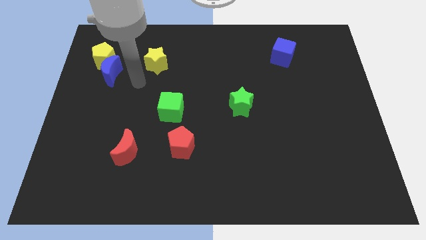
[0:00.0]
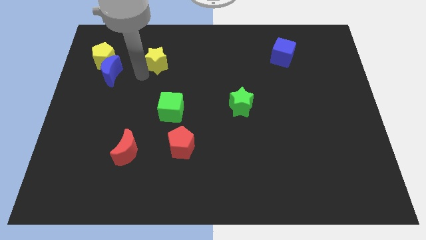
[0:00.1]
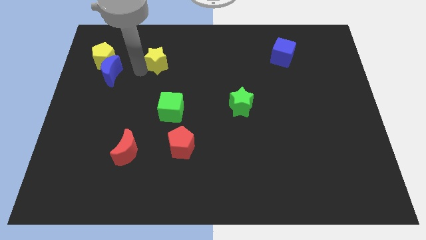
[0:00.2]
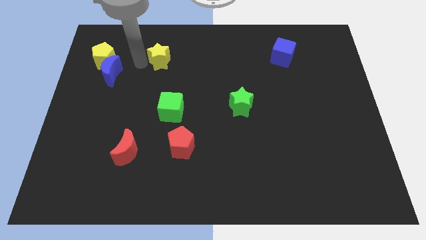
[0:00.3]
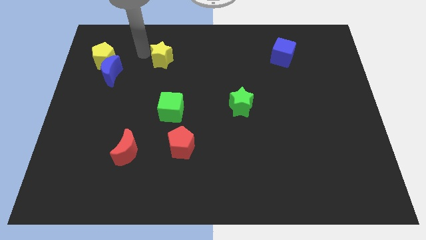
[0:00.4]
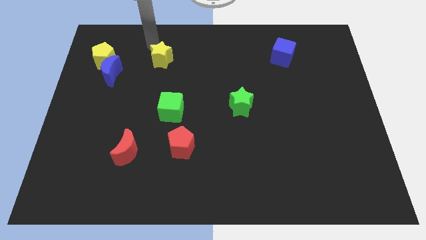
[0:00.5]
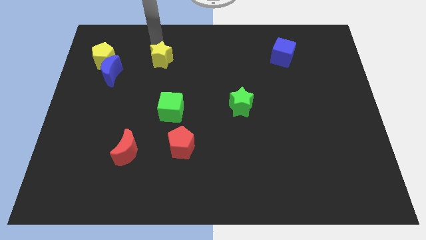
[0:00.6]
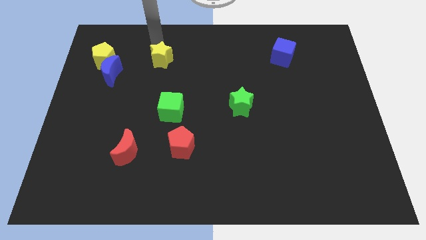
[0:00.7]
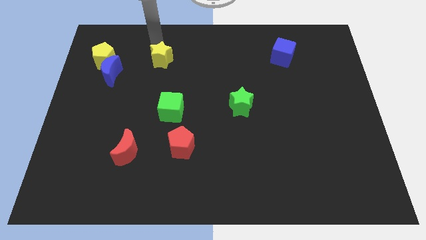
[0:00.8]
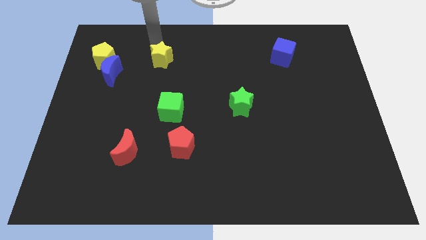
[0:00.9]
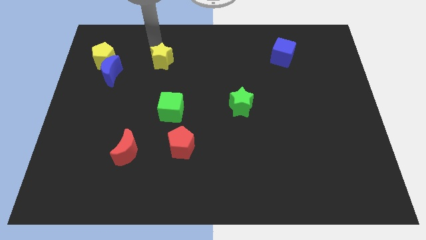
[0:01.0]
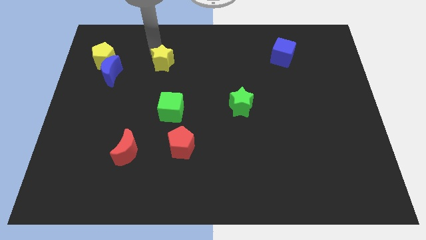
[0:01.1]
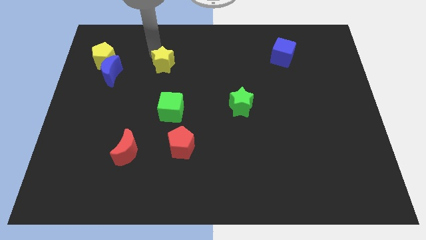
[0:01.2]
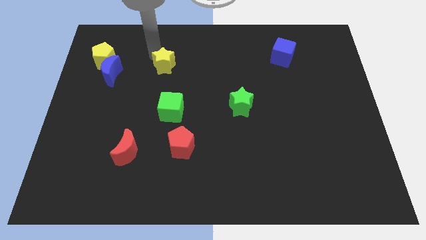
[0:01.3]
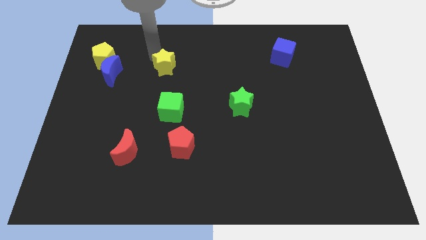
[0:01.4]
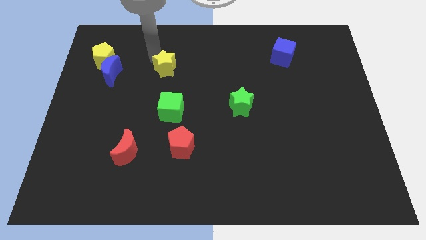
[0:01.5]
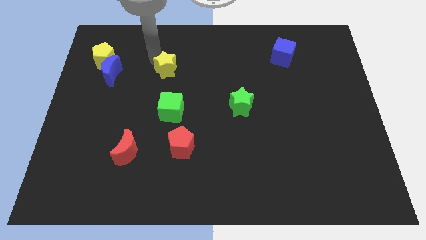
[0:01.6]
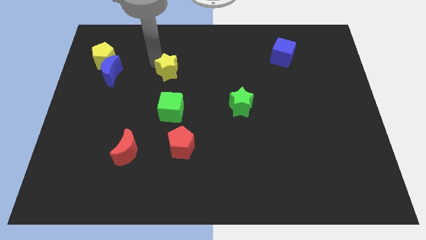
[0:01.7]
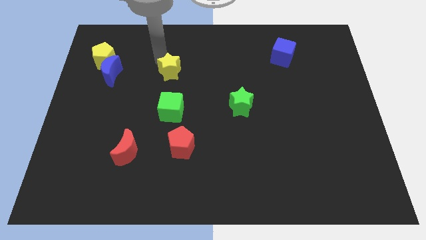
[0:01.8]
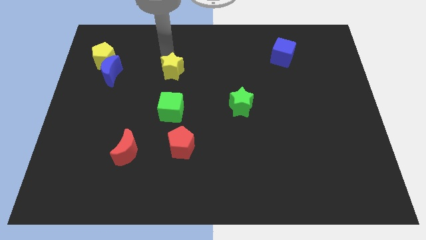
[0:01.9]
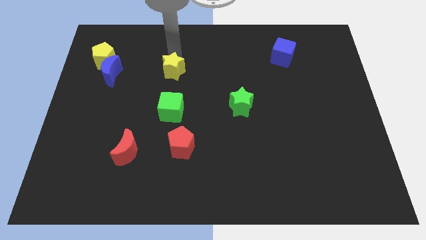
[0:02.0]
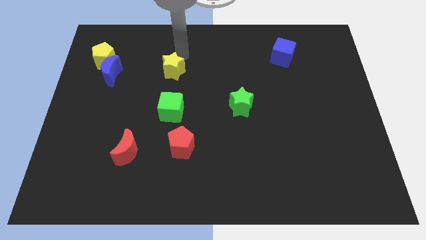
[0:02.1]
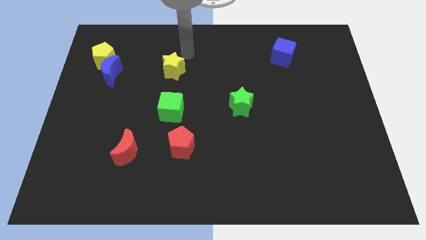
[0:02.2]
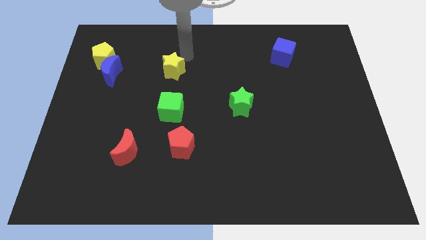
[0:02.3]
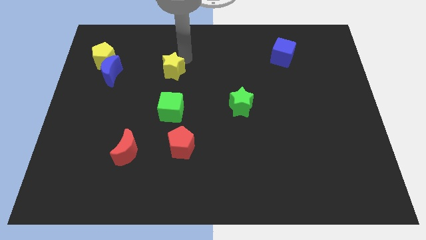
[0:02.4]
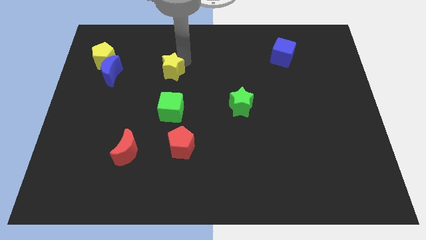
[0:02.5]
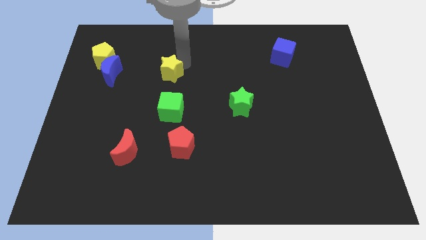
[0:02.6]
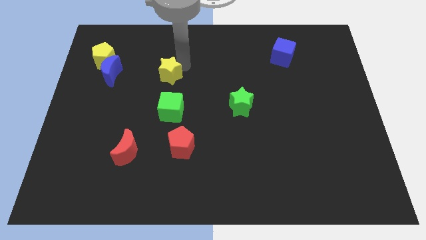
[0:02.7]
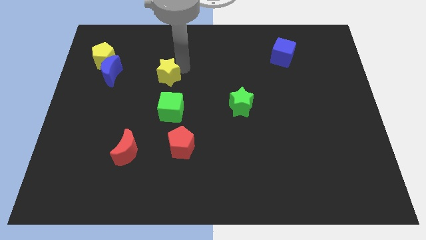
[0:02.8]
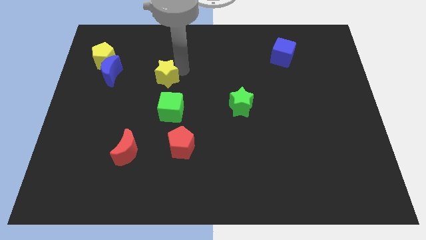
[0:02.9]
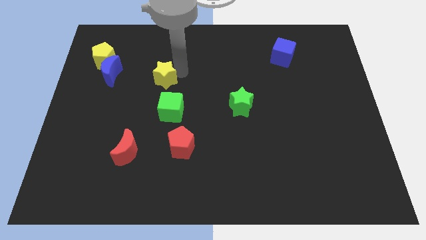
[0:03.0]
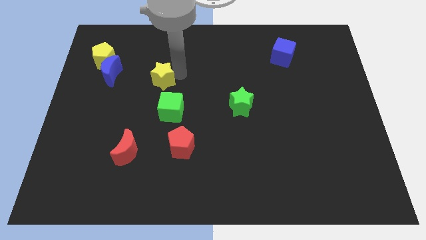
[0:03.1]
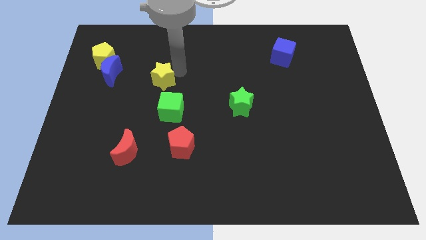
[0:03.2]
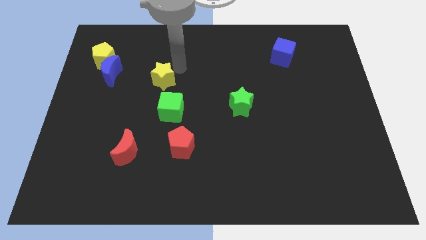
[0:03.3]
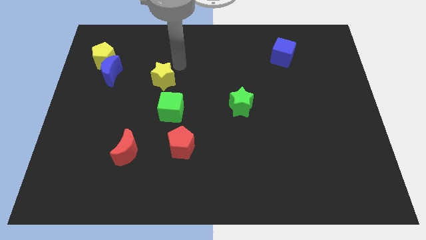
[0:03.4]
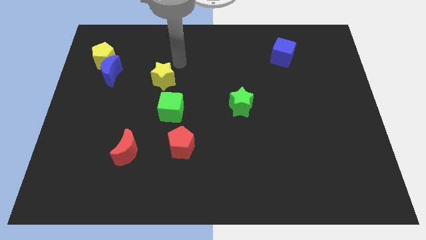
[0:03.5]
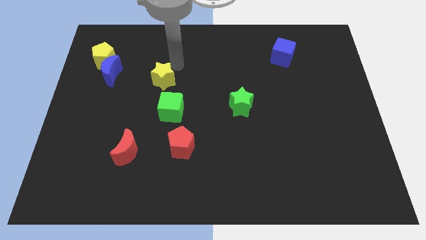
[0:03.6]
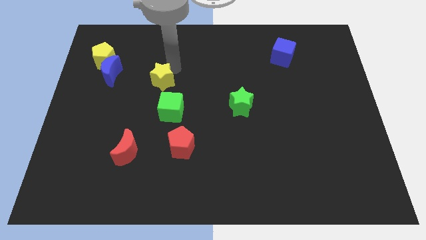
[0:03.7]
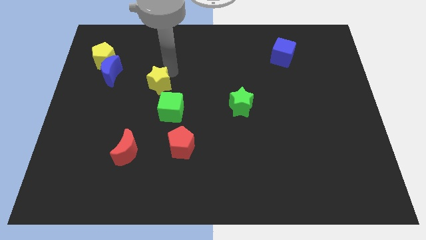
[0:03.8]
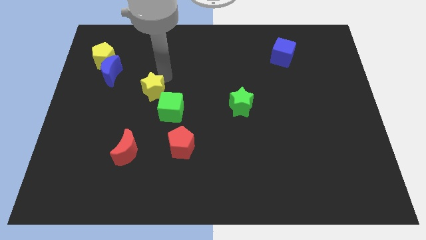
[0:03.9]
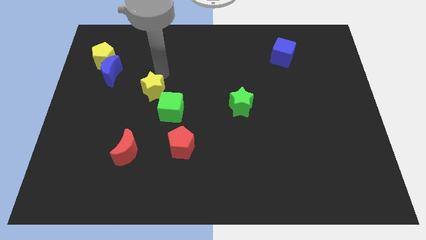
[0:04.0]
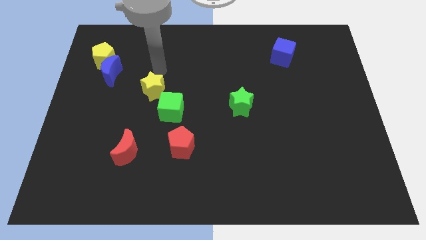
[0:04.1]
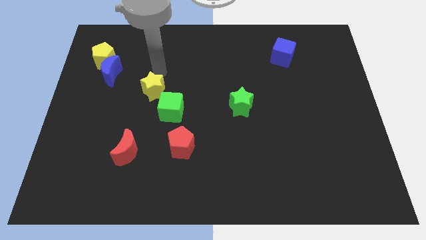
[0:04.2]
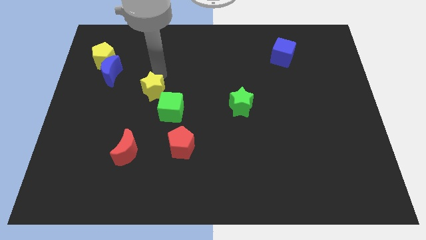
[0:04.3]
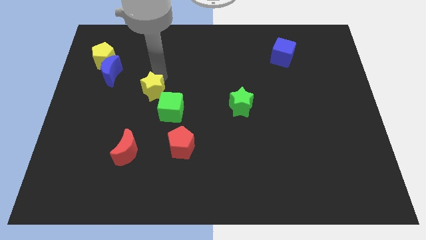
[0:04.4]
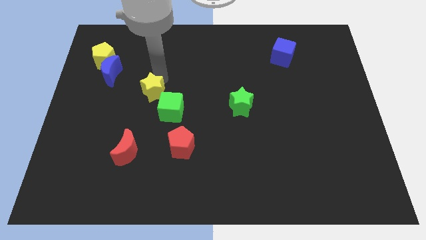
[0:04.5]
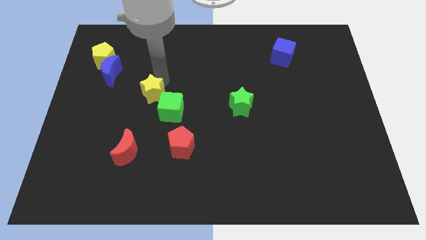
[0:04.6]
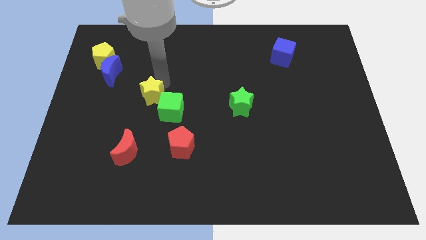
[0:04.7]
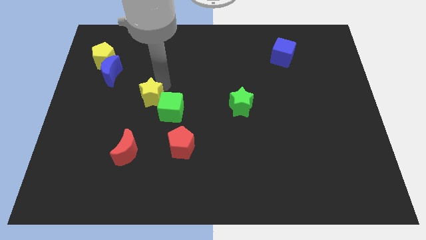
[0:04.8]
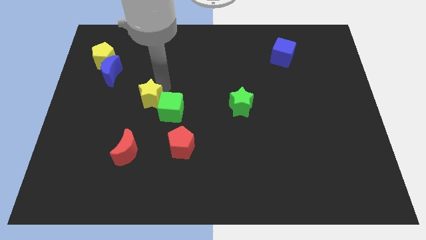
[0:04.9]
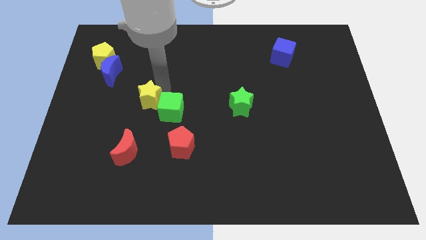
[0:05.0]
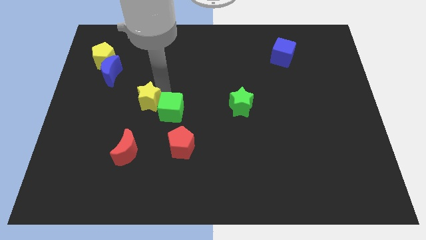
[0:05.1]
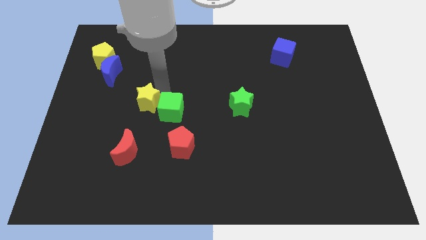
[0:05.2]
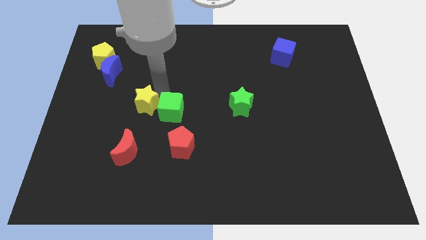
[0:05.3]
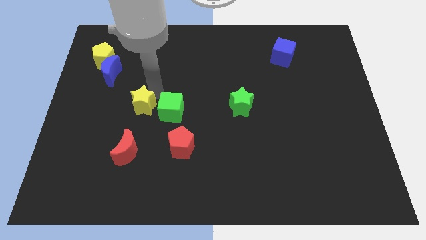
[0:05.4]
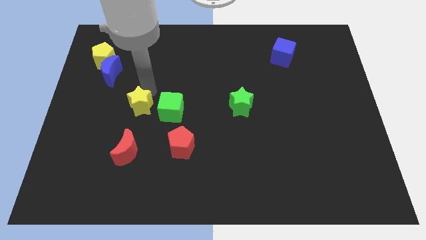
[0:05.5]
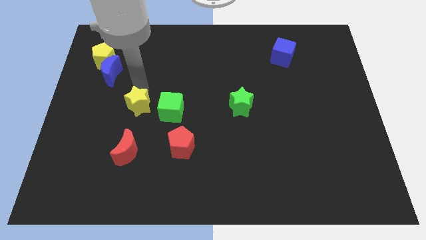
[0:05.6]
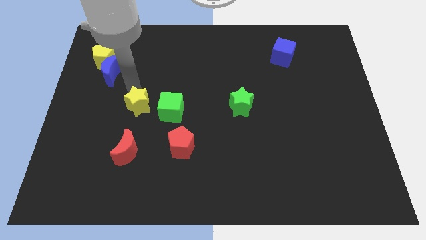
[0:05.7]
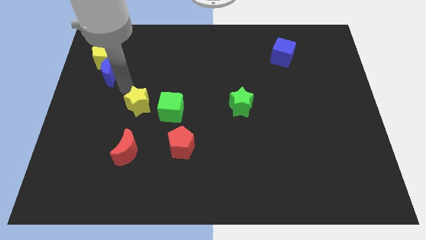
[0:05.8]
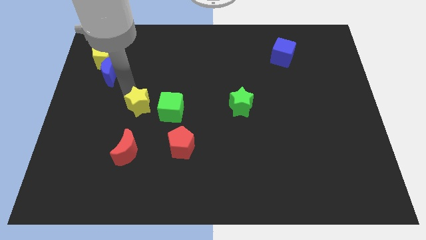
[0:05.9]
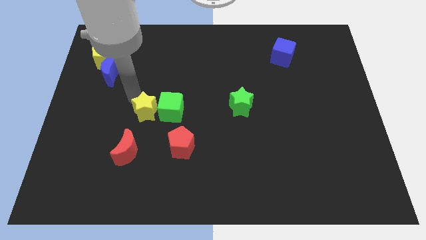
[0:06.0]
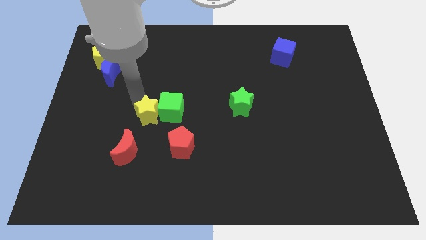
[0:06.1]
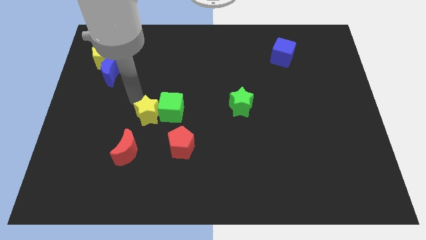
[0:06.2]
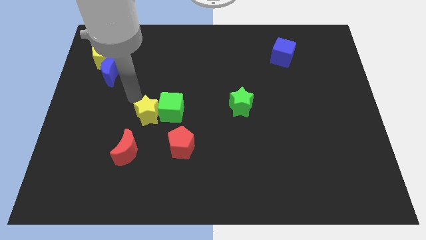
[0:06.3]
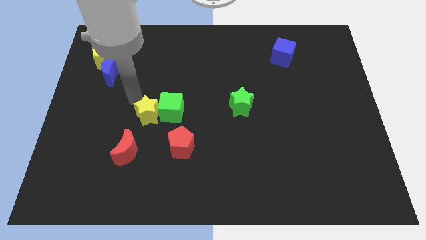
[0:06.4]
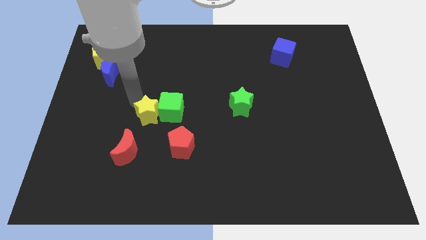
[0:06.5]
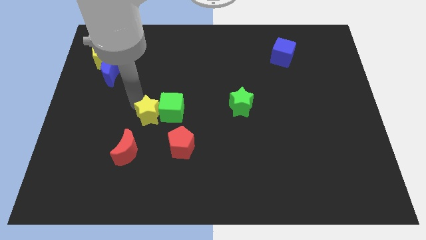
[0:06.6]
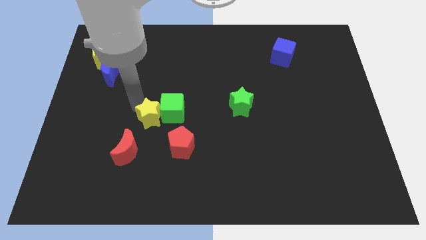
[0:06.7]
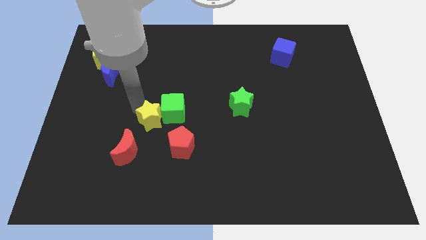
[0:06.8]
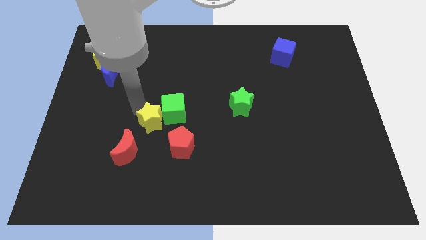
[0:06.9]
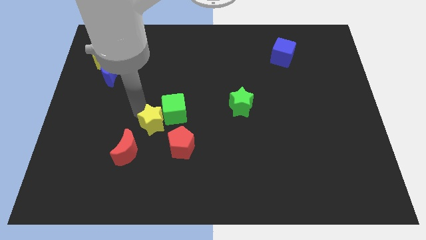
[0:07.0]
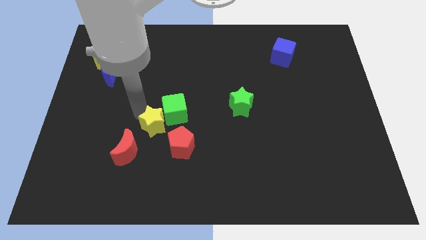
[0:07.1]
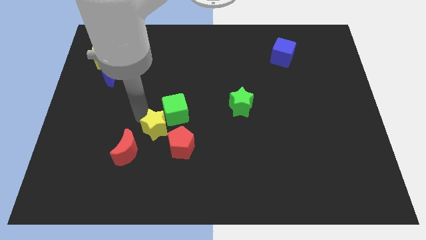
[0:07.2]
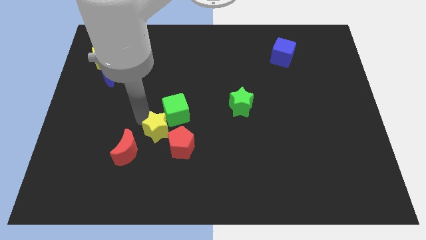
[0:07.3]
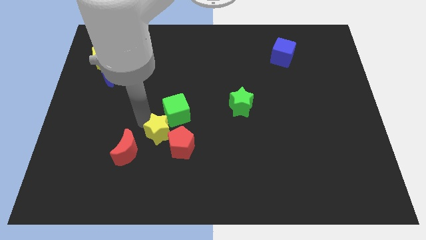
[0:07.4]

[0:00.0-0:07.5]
move the yellow star towards the red pentagon
